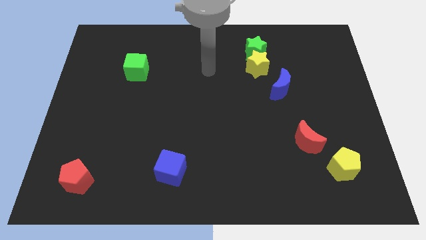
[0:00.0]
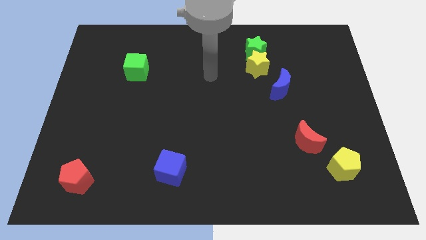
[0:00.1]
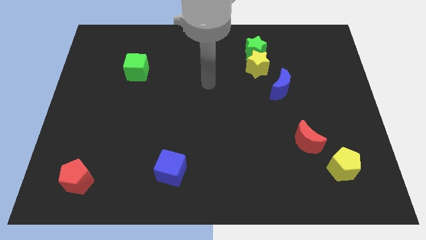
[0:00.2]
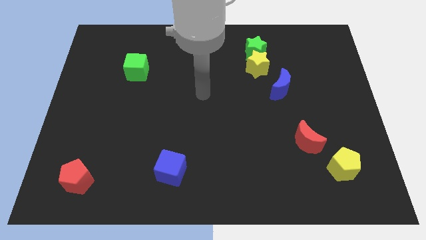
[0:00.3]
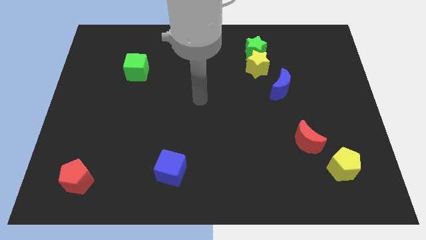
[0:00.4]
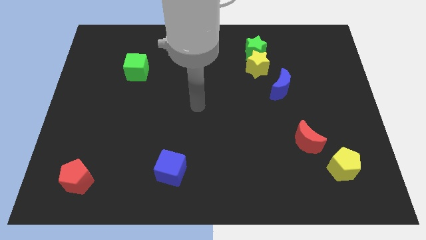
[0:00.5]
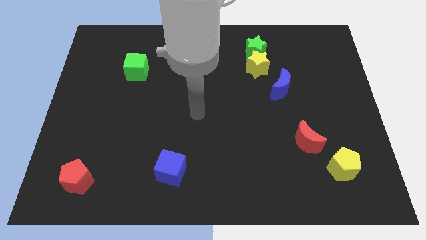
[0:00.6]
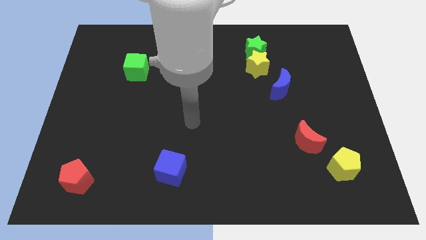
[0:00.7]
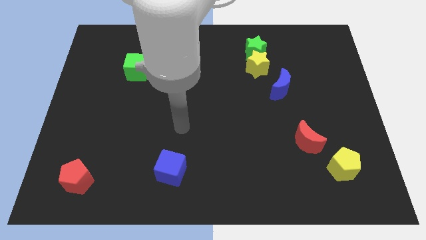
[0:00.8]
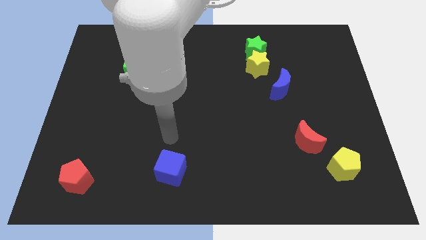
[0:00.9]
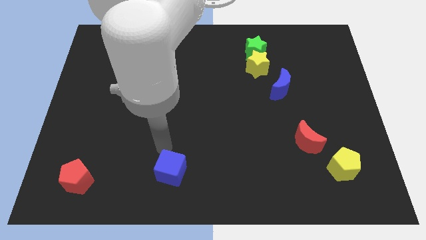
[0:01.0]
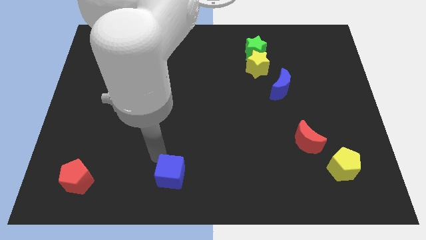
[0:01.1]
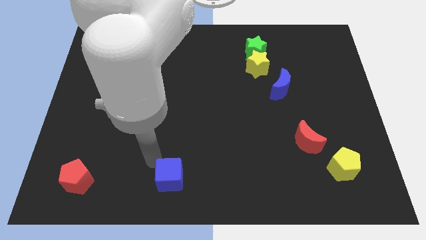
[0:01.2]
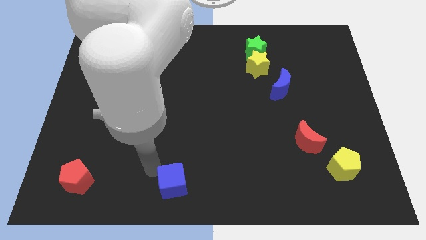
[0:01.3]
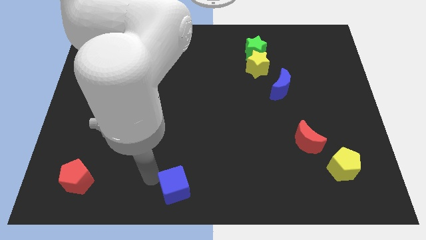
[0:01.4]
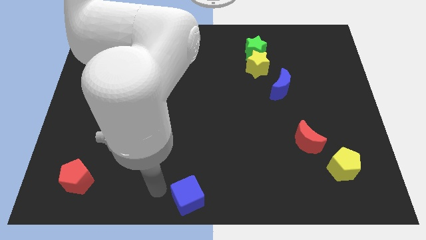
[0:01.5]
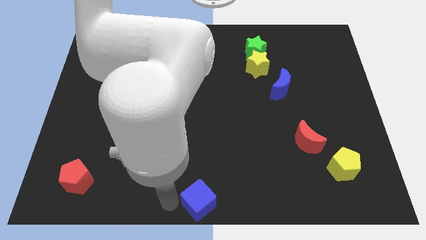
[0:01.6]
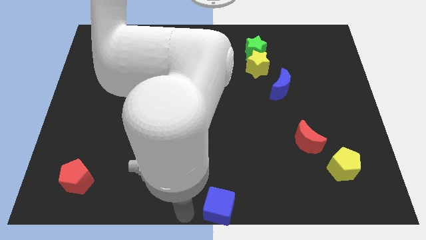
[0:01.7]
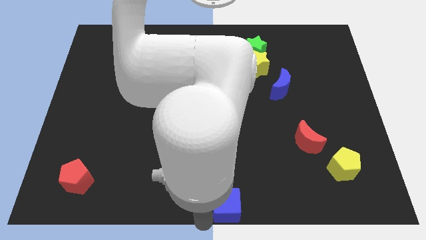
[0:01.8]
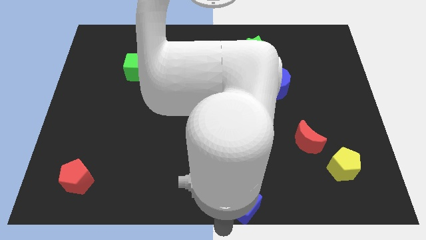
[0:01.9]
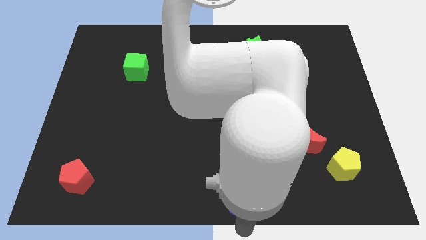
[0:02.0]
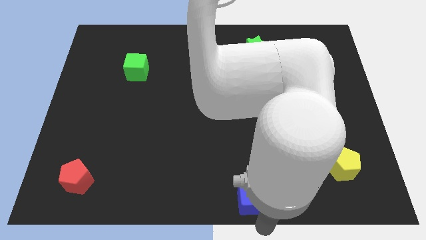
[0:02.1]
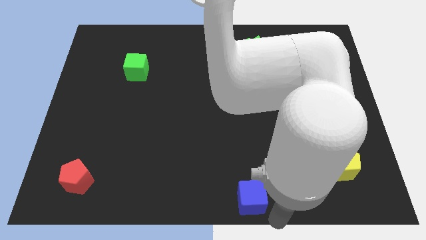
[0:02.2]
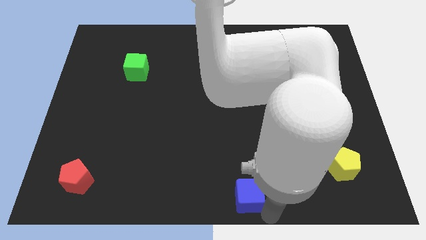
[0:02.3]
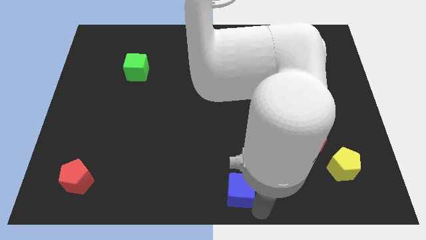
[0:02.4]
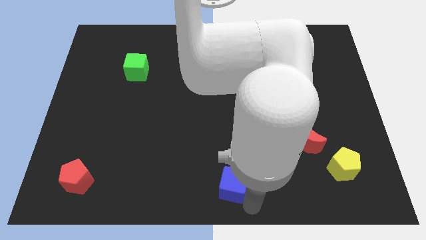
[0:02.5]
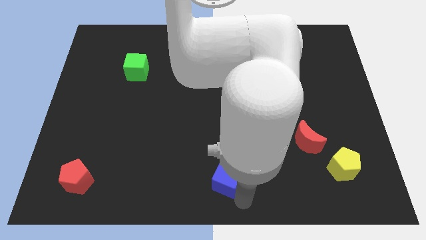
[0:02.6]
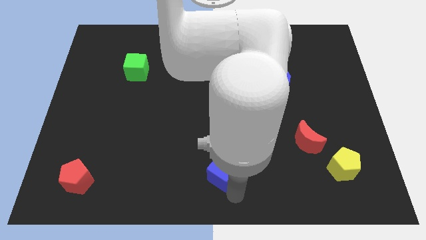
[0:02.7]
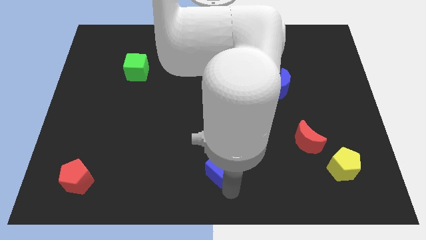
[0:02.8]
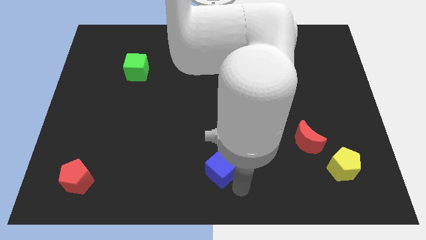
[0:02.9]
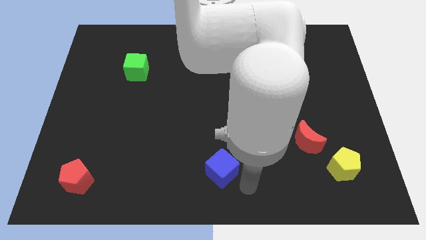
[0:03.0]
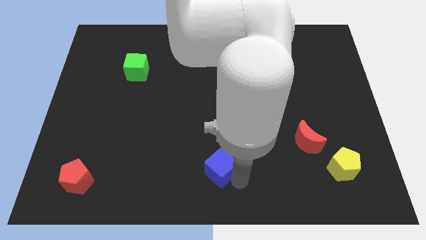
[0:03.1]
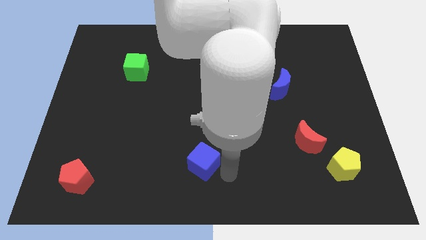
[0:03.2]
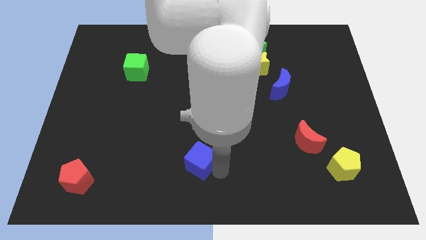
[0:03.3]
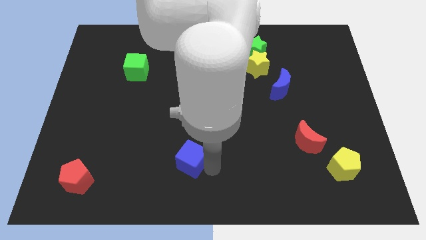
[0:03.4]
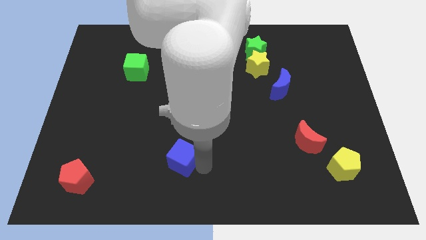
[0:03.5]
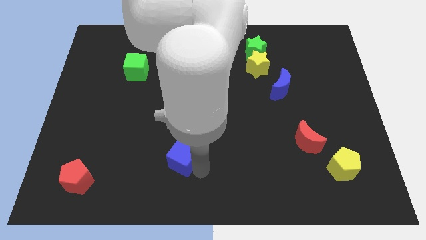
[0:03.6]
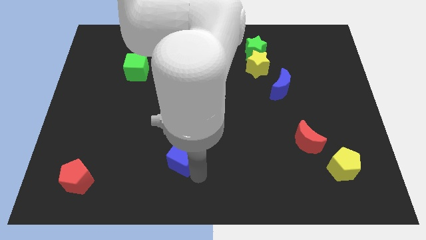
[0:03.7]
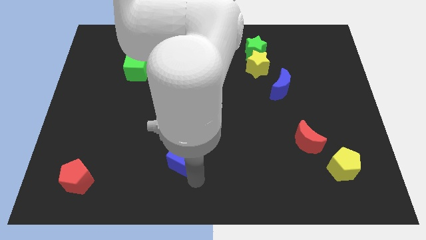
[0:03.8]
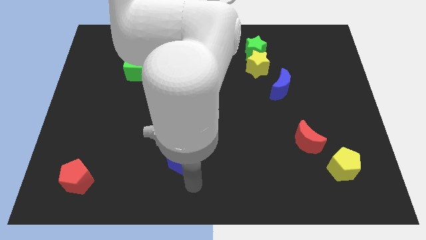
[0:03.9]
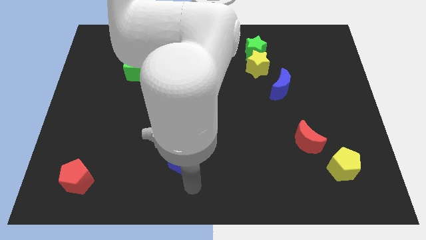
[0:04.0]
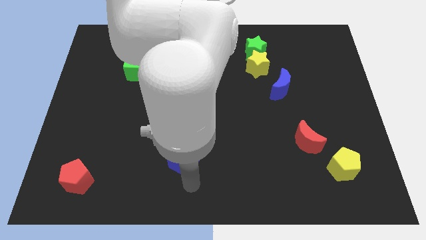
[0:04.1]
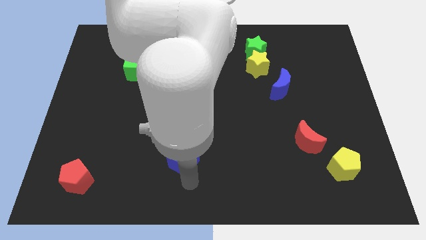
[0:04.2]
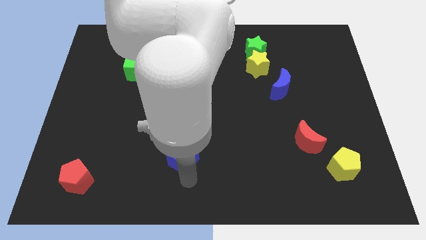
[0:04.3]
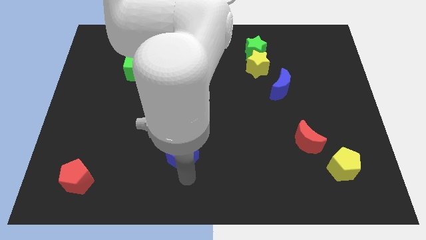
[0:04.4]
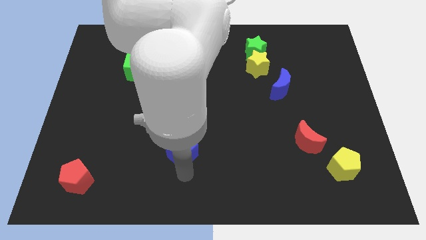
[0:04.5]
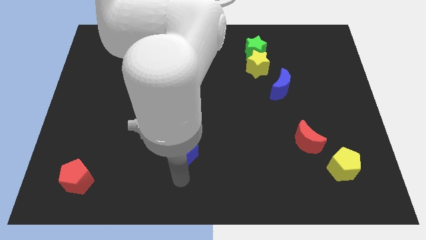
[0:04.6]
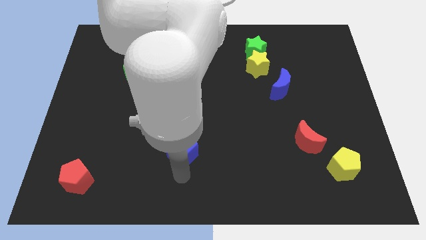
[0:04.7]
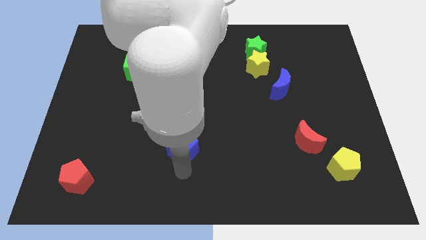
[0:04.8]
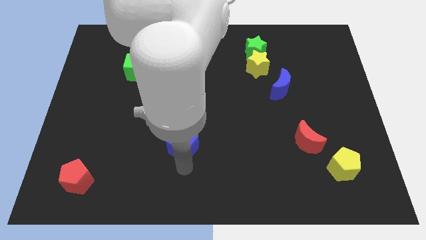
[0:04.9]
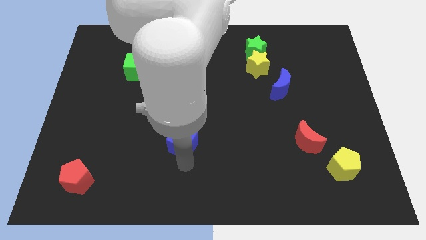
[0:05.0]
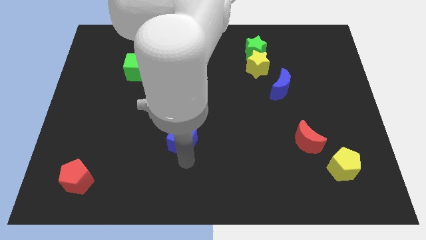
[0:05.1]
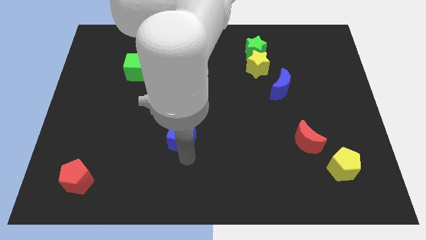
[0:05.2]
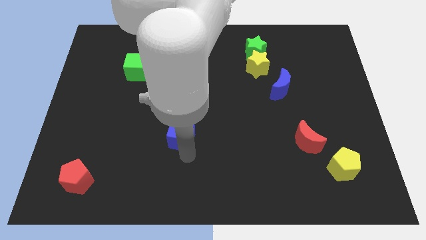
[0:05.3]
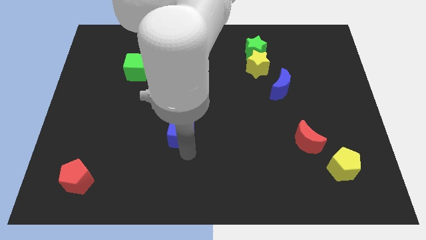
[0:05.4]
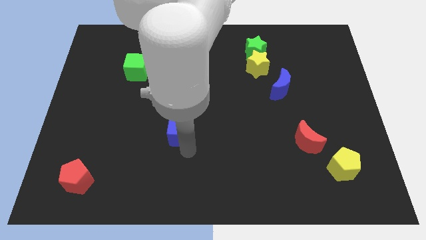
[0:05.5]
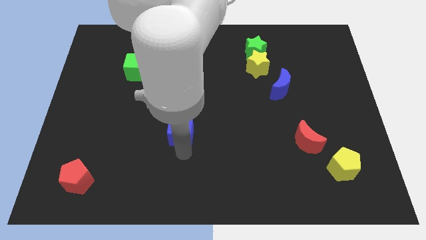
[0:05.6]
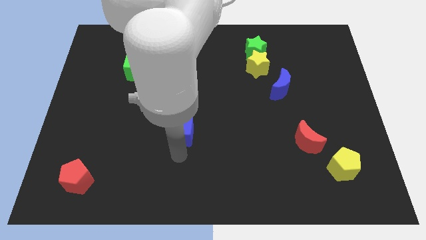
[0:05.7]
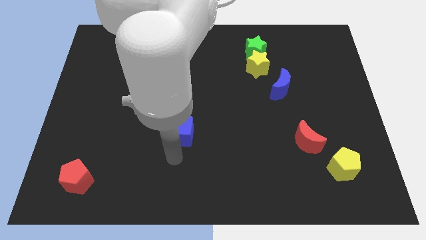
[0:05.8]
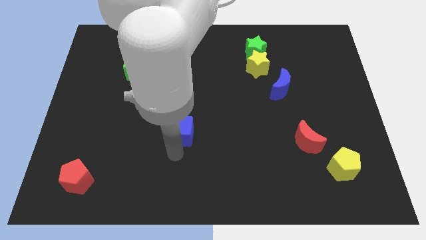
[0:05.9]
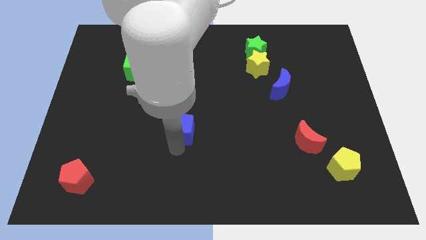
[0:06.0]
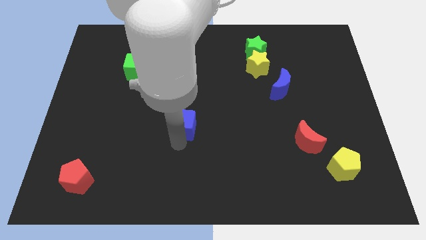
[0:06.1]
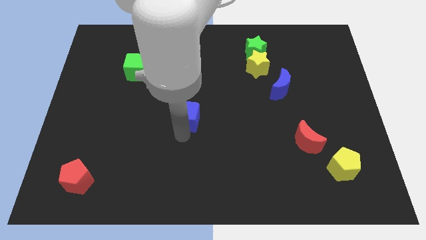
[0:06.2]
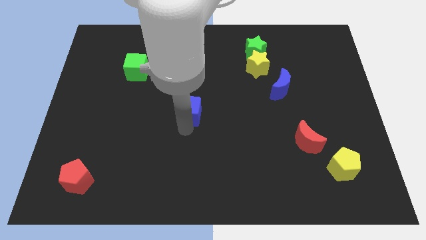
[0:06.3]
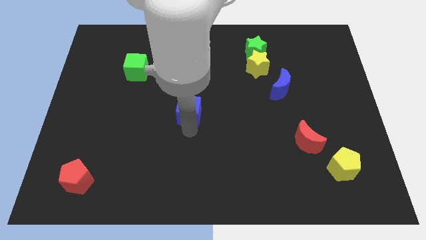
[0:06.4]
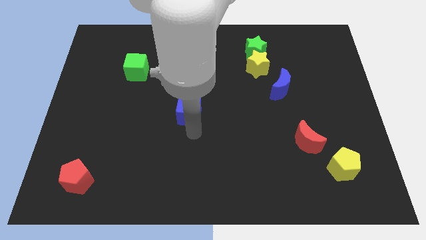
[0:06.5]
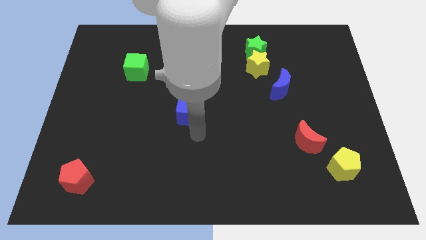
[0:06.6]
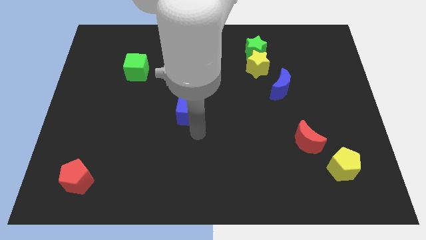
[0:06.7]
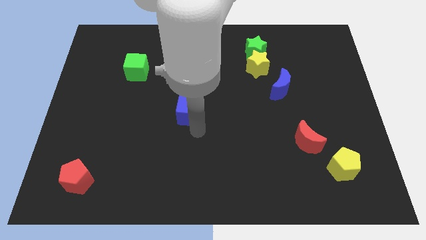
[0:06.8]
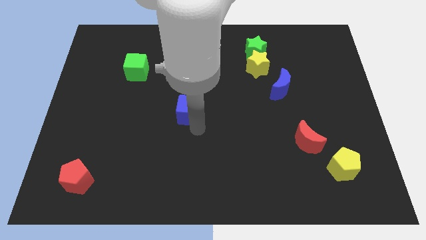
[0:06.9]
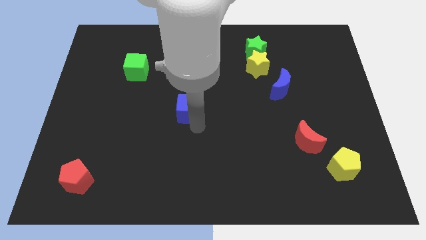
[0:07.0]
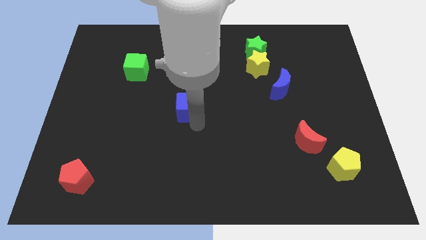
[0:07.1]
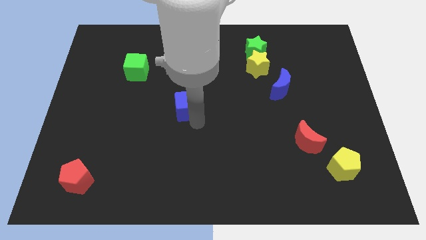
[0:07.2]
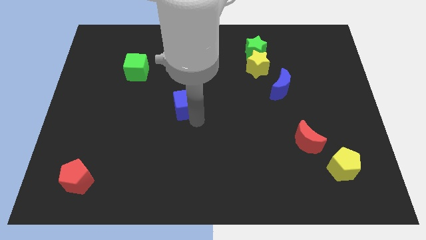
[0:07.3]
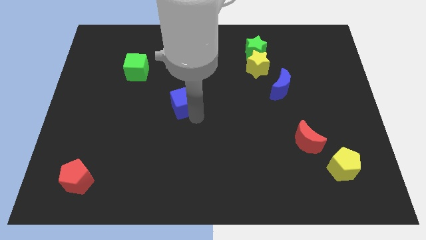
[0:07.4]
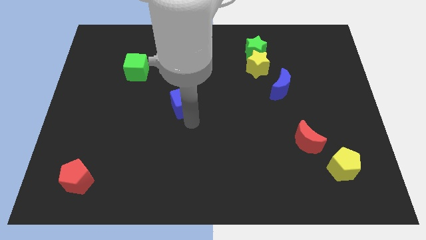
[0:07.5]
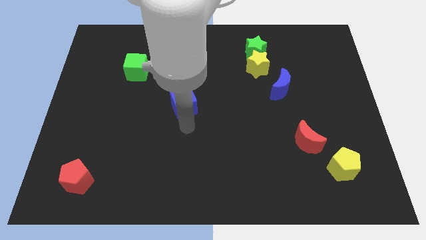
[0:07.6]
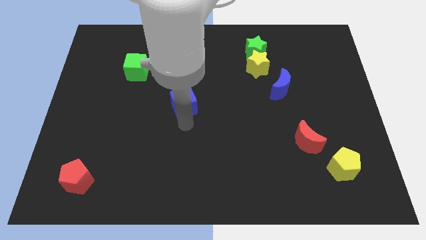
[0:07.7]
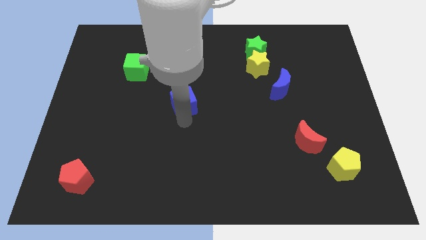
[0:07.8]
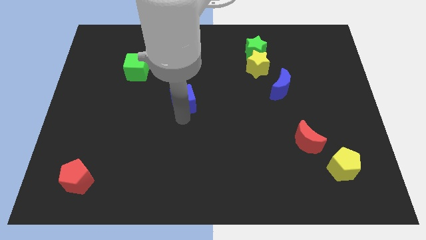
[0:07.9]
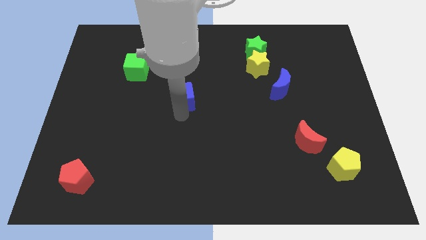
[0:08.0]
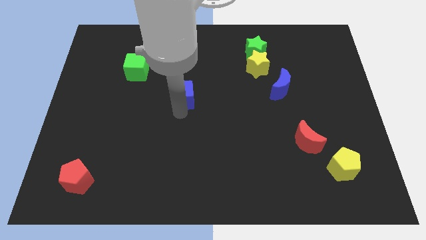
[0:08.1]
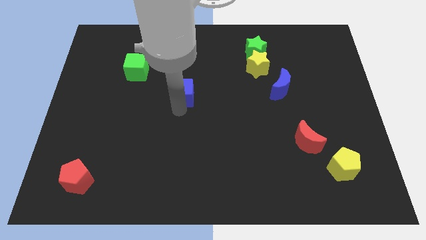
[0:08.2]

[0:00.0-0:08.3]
slide the blue cube upwards
